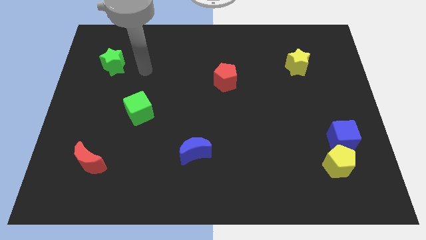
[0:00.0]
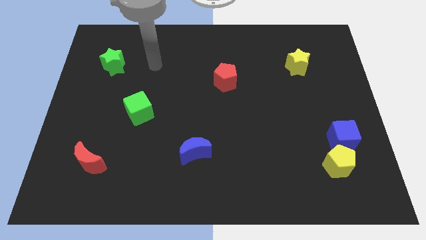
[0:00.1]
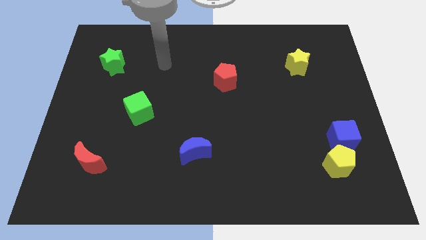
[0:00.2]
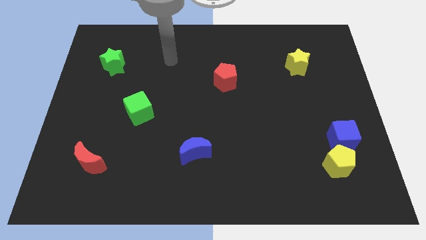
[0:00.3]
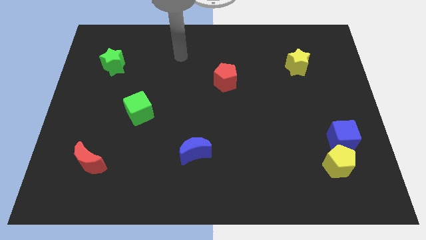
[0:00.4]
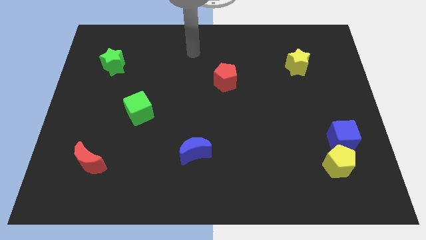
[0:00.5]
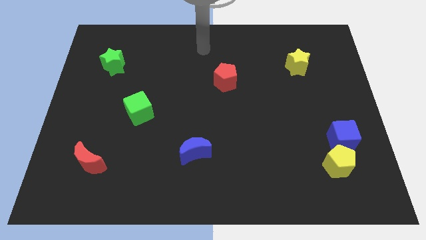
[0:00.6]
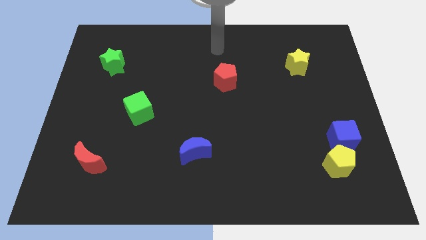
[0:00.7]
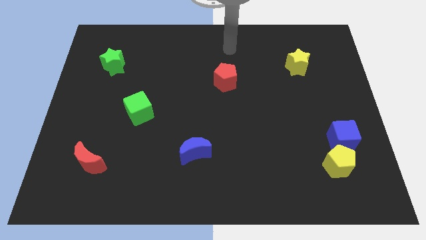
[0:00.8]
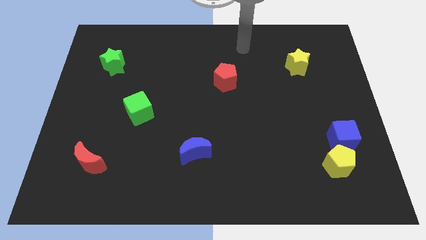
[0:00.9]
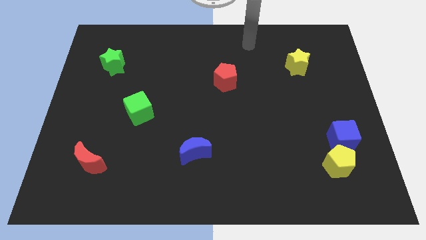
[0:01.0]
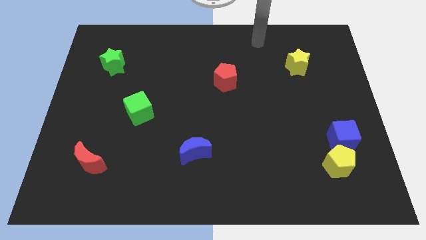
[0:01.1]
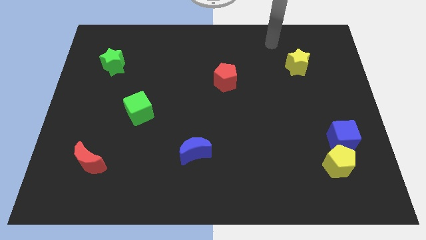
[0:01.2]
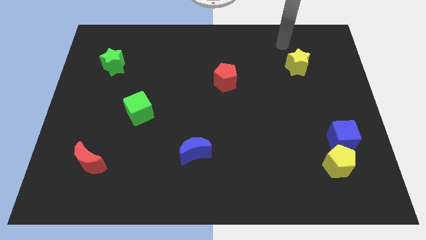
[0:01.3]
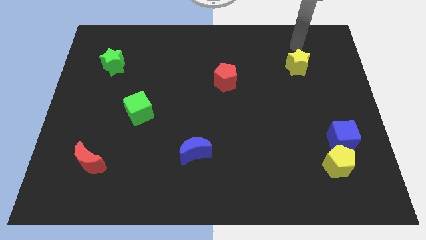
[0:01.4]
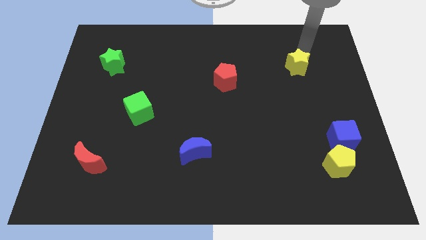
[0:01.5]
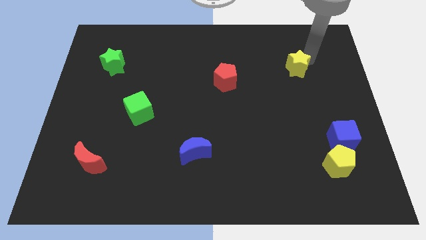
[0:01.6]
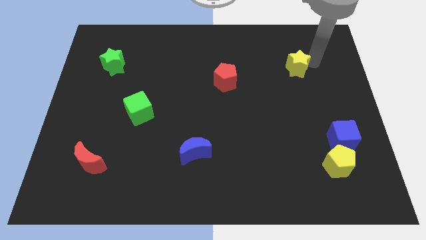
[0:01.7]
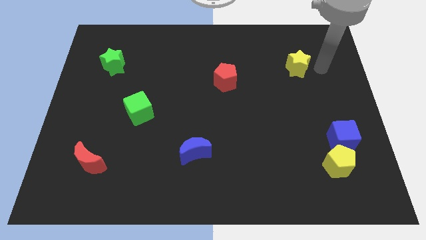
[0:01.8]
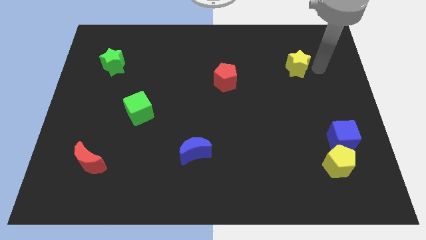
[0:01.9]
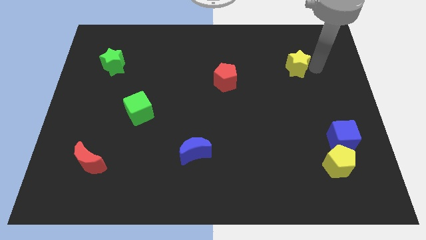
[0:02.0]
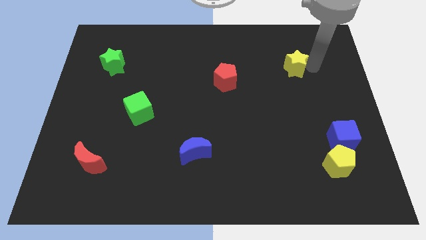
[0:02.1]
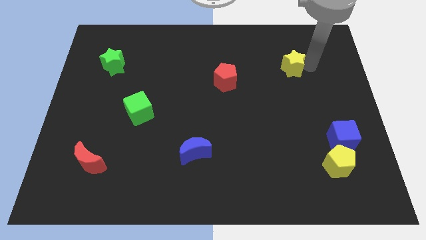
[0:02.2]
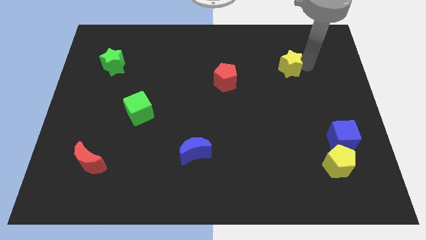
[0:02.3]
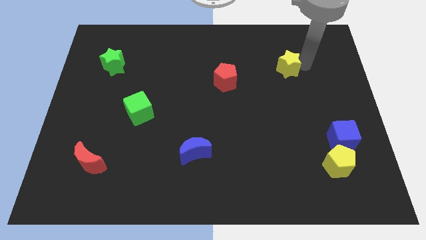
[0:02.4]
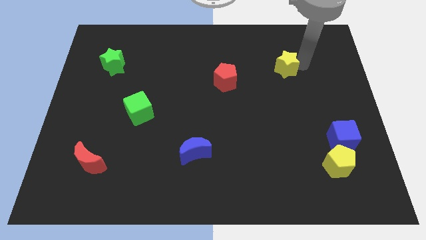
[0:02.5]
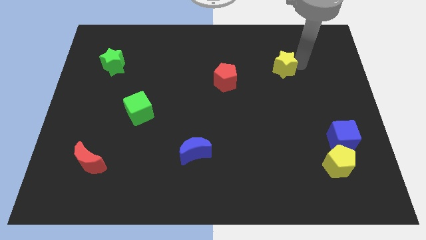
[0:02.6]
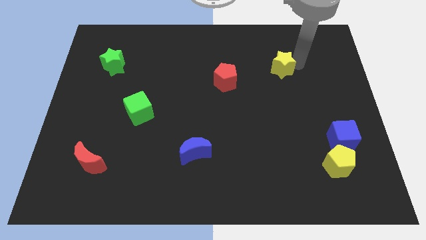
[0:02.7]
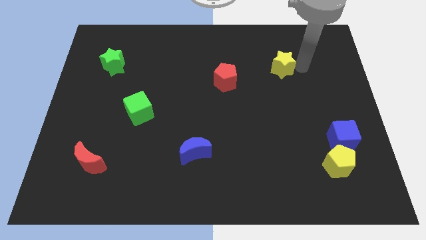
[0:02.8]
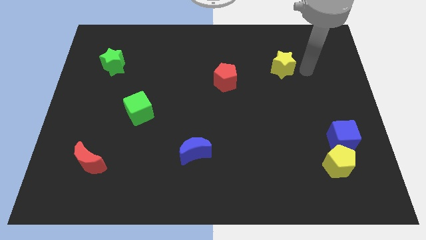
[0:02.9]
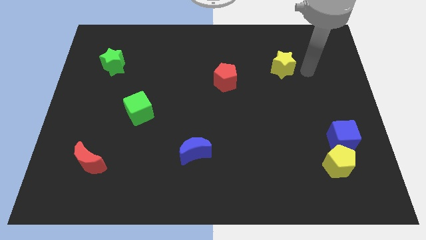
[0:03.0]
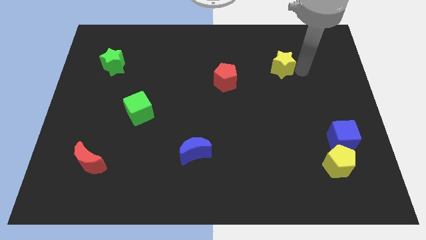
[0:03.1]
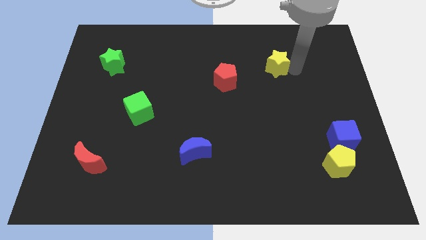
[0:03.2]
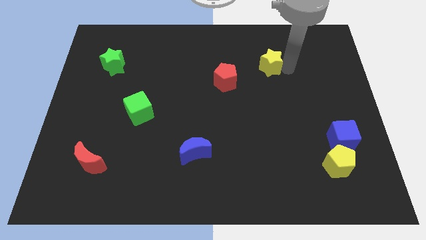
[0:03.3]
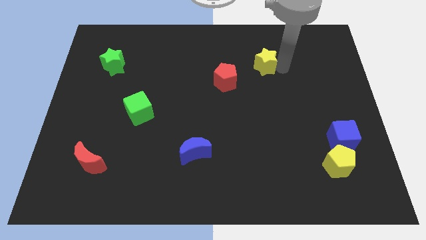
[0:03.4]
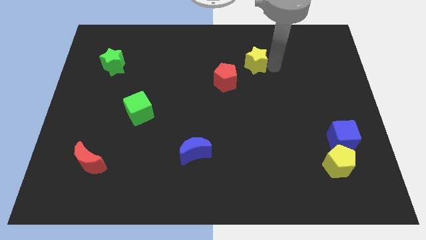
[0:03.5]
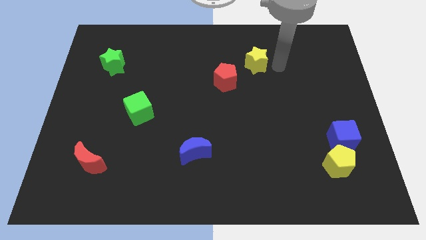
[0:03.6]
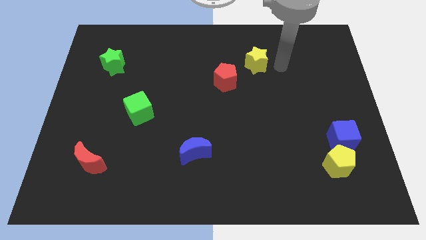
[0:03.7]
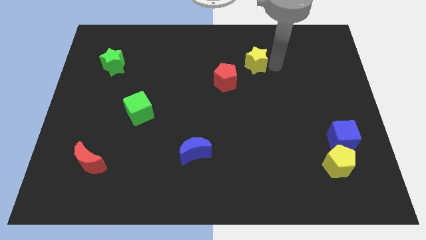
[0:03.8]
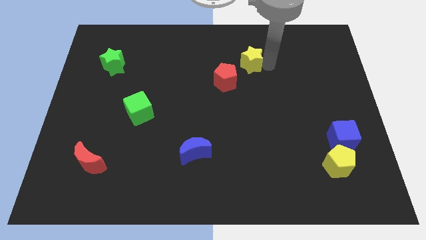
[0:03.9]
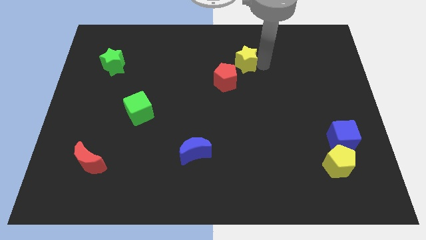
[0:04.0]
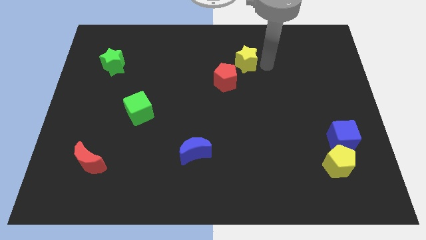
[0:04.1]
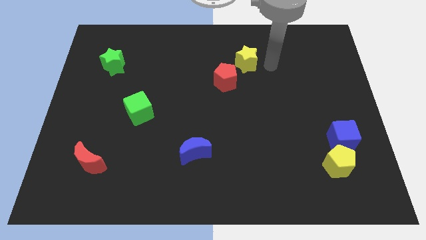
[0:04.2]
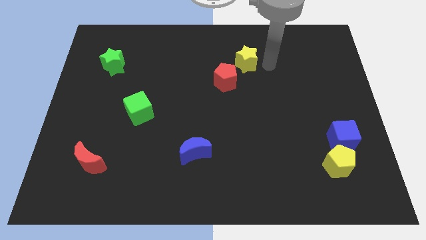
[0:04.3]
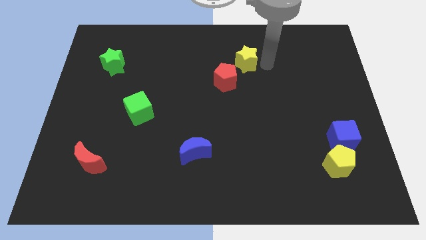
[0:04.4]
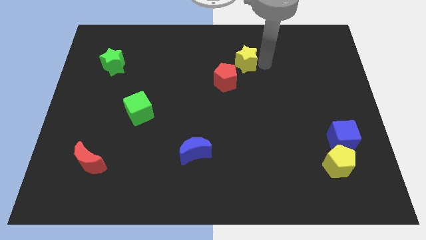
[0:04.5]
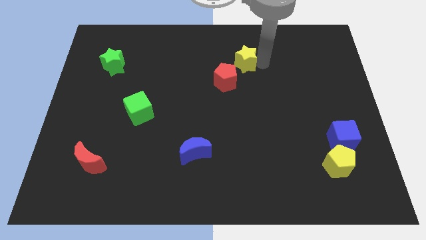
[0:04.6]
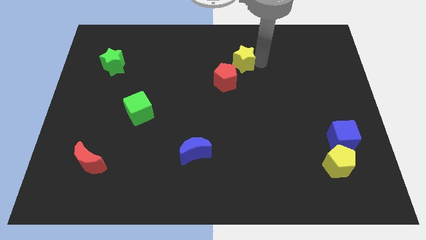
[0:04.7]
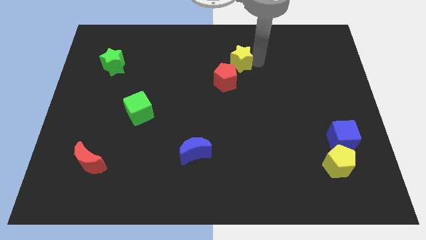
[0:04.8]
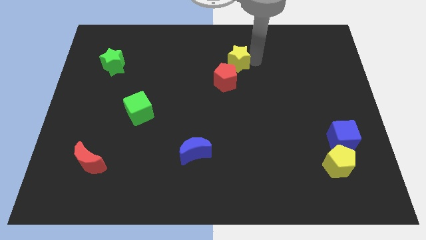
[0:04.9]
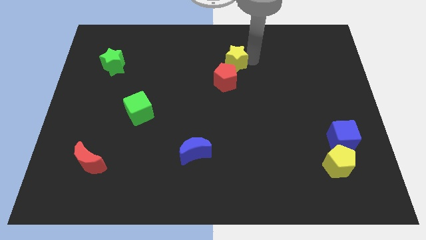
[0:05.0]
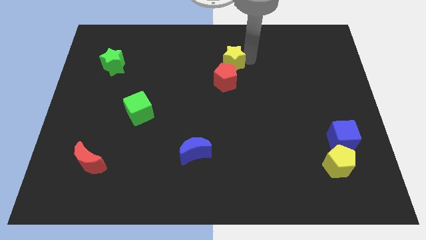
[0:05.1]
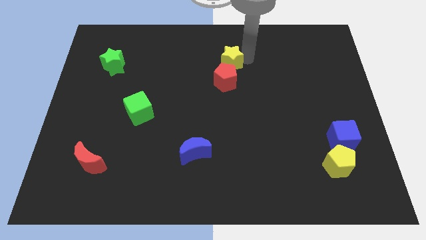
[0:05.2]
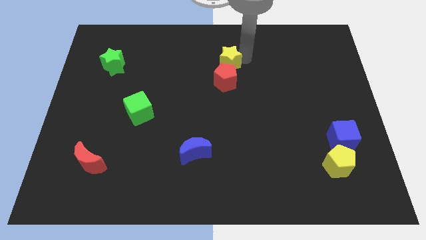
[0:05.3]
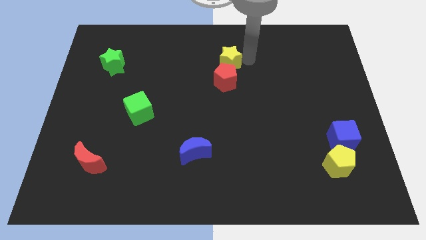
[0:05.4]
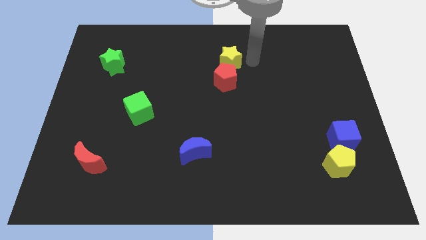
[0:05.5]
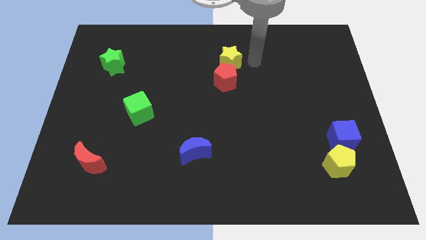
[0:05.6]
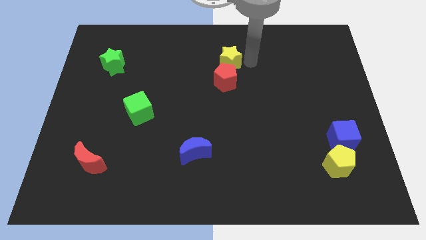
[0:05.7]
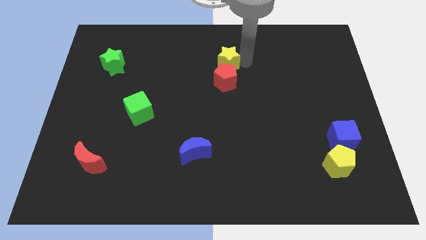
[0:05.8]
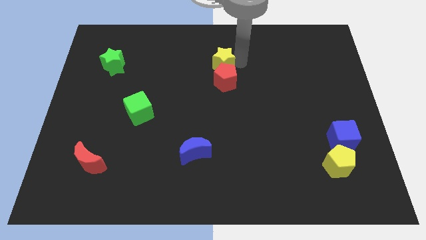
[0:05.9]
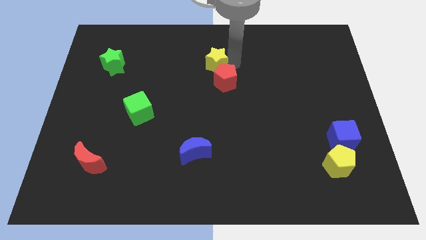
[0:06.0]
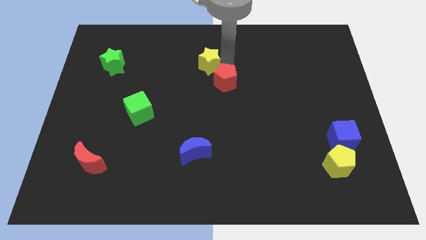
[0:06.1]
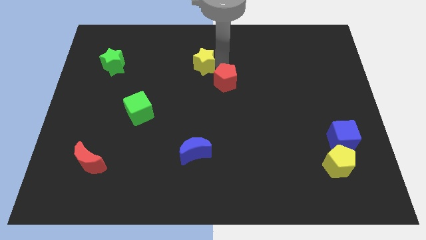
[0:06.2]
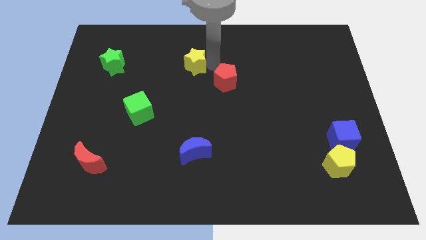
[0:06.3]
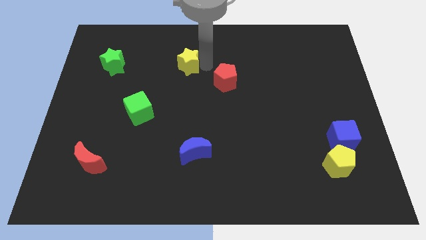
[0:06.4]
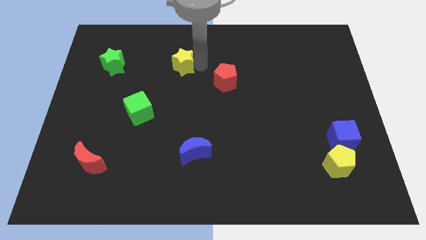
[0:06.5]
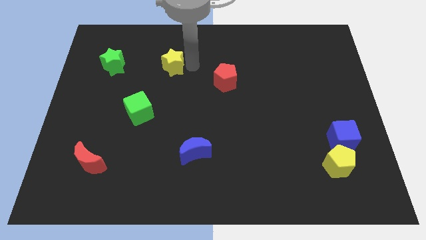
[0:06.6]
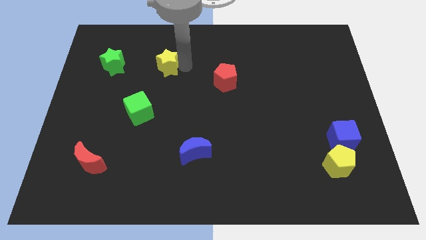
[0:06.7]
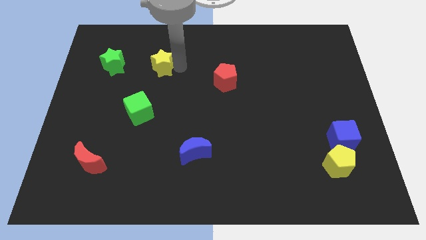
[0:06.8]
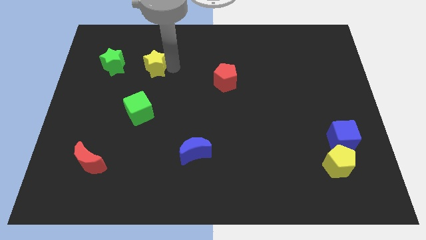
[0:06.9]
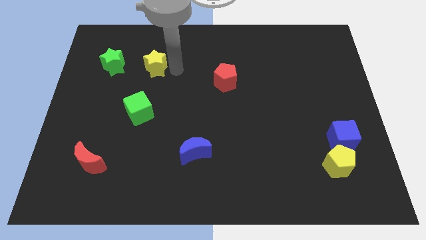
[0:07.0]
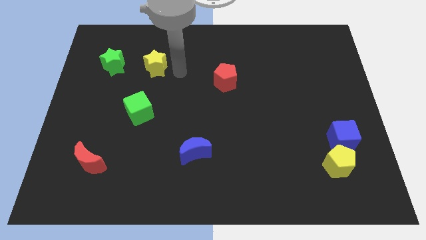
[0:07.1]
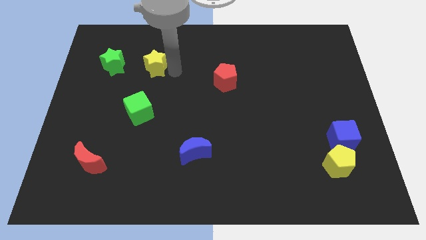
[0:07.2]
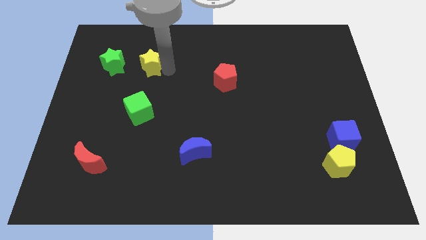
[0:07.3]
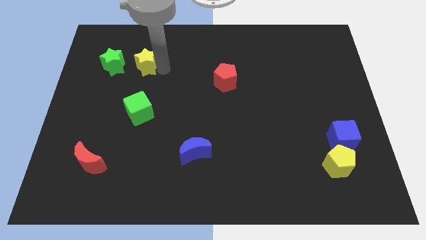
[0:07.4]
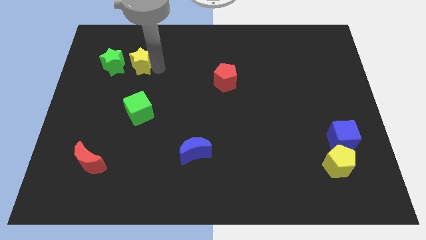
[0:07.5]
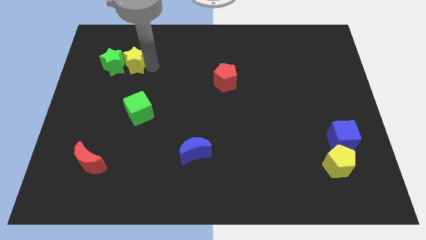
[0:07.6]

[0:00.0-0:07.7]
push the yellow star close to the green star

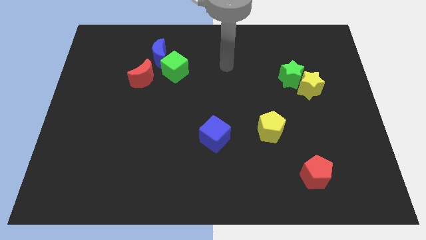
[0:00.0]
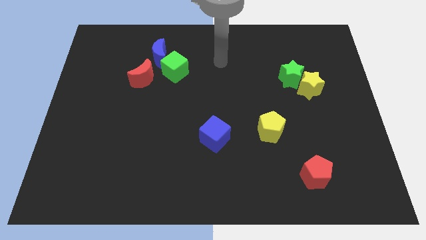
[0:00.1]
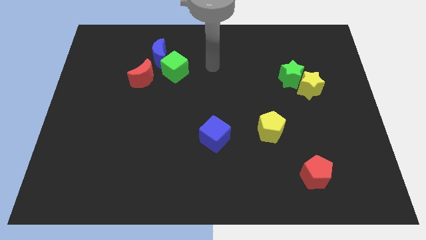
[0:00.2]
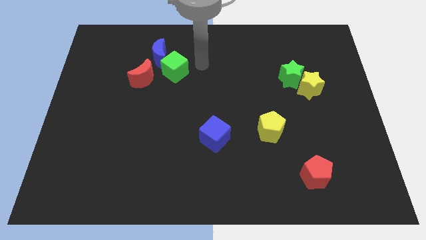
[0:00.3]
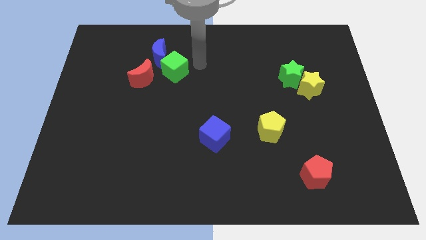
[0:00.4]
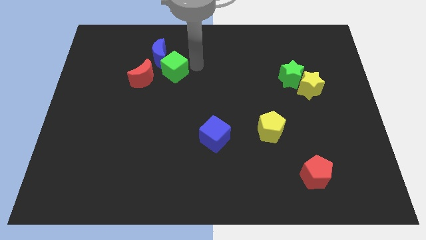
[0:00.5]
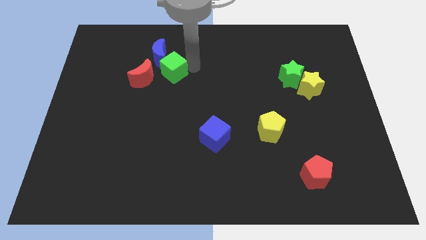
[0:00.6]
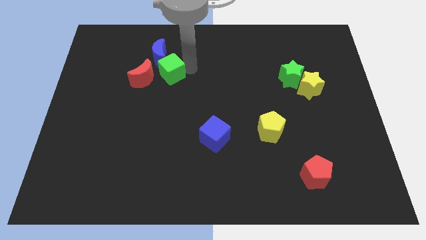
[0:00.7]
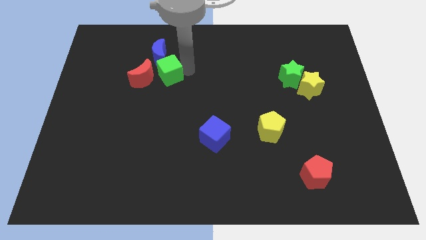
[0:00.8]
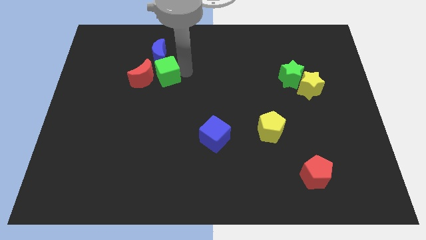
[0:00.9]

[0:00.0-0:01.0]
put the green cube next to the red moon
